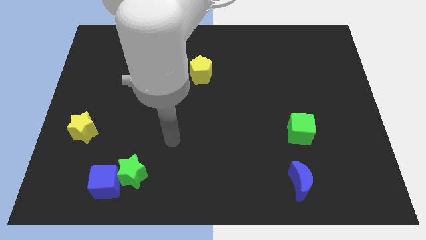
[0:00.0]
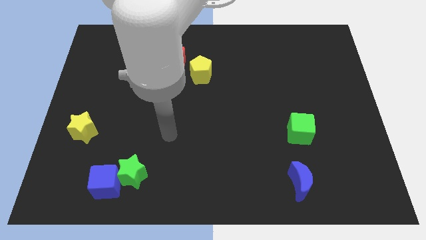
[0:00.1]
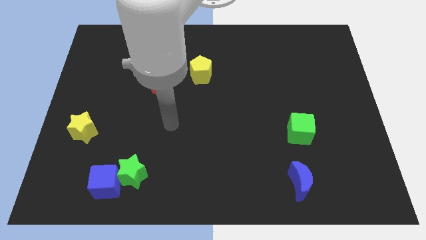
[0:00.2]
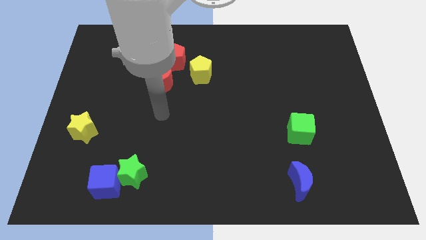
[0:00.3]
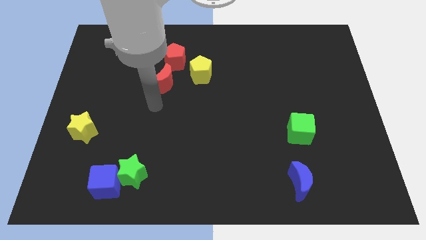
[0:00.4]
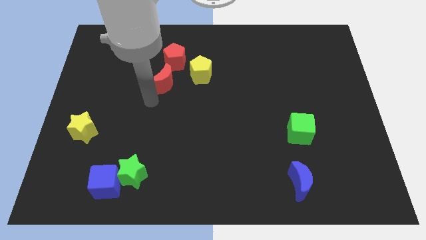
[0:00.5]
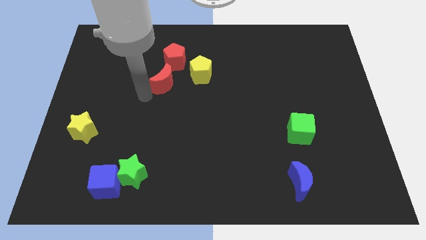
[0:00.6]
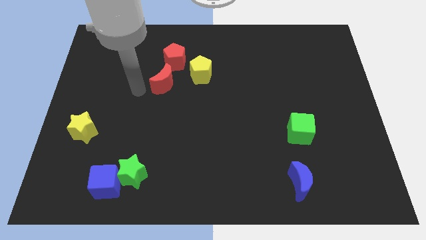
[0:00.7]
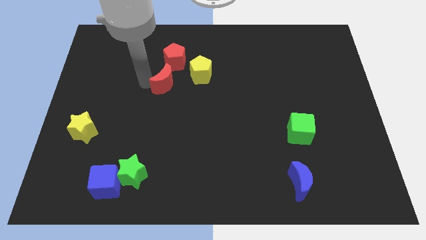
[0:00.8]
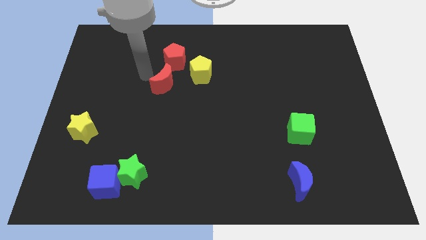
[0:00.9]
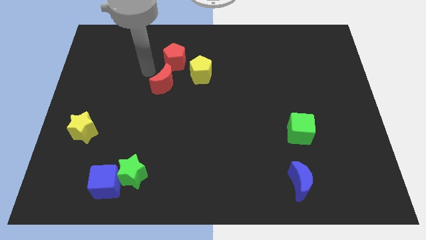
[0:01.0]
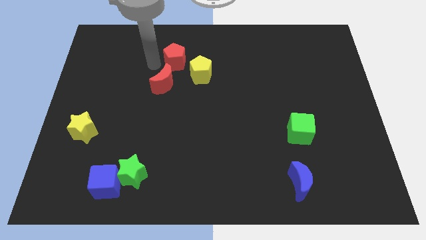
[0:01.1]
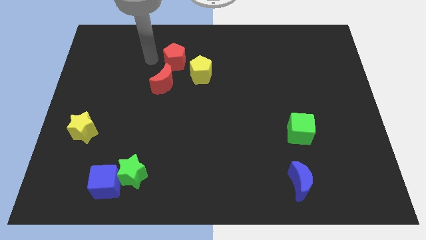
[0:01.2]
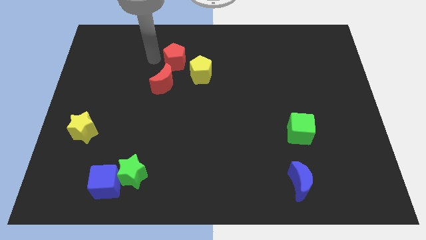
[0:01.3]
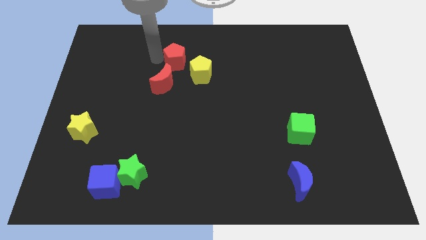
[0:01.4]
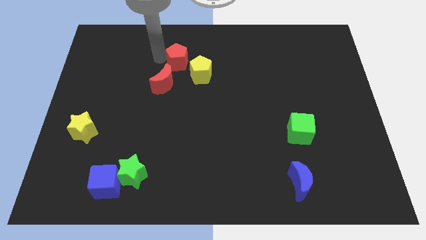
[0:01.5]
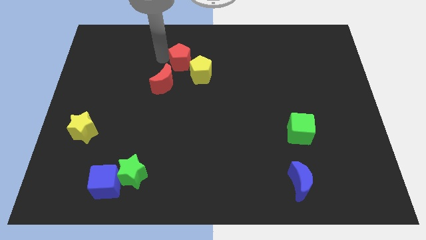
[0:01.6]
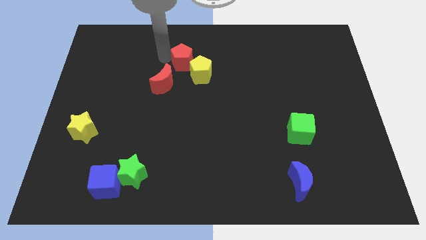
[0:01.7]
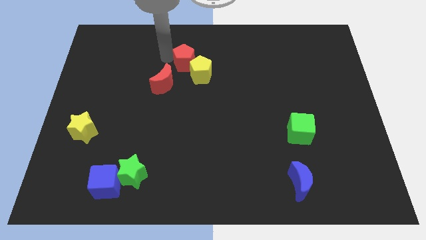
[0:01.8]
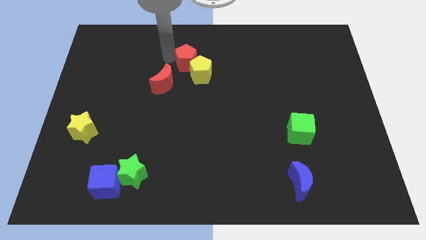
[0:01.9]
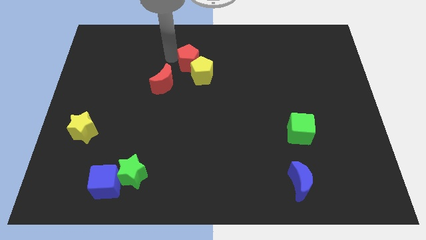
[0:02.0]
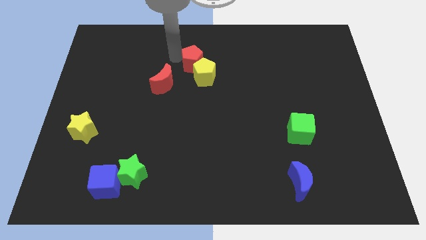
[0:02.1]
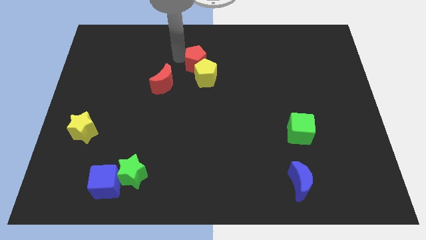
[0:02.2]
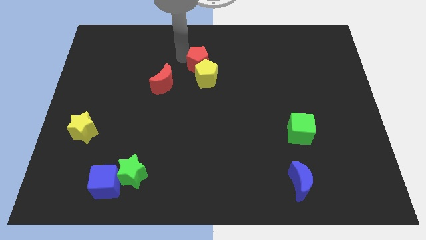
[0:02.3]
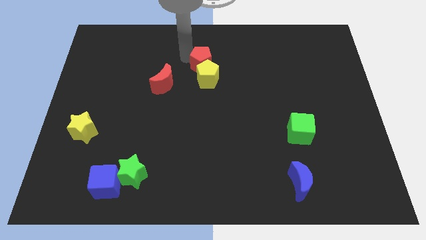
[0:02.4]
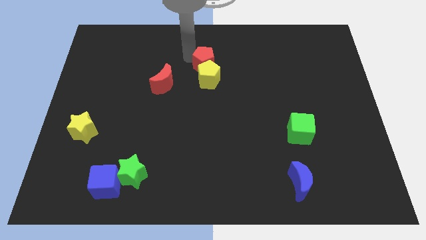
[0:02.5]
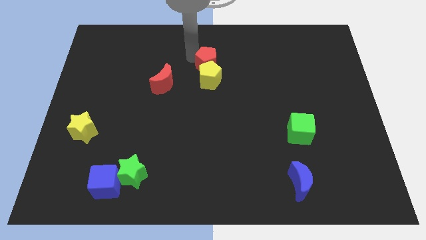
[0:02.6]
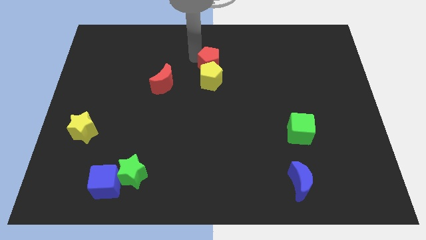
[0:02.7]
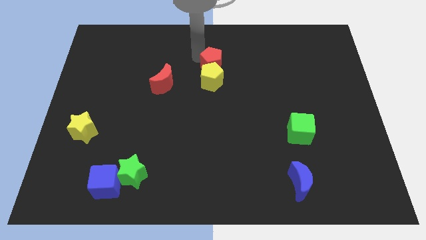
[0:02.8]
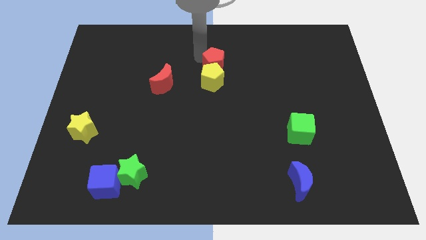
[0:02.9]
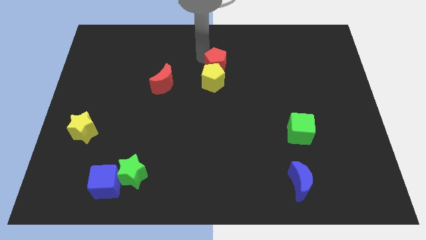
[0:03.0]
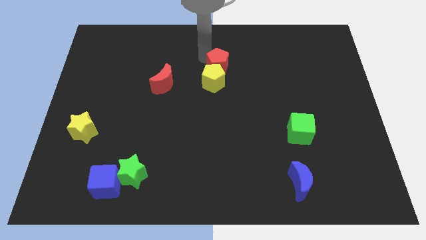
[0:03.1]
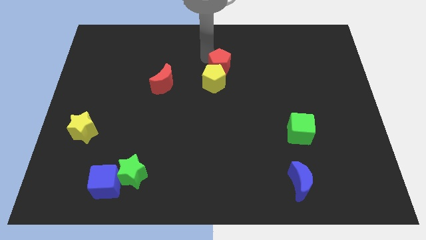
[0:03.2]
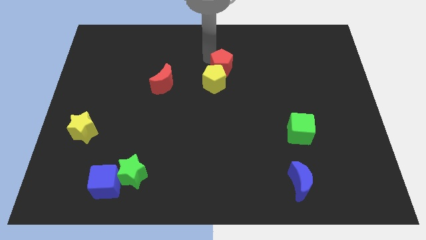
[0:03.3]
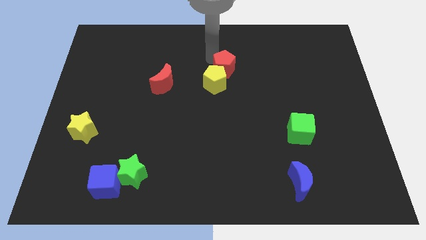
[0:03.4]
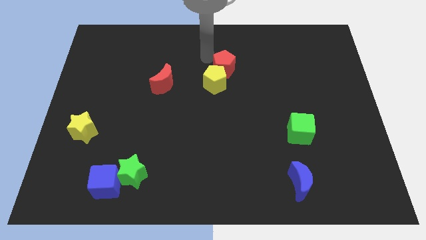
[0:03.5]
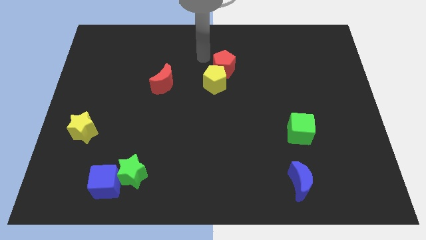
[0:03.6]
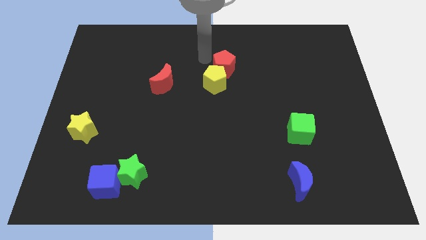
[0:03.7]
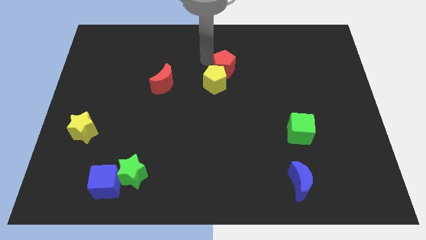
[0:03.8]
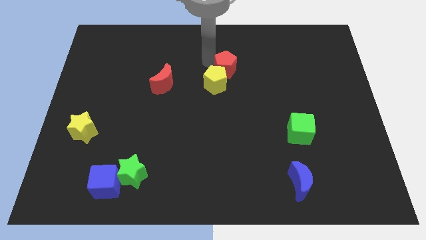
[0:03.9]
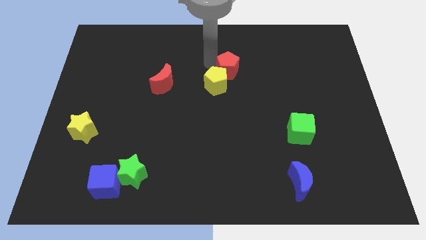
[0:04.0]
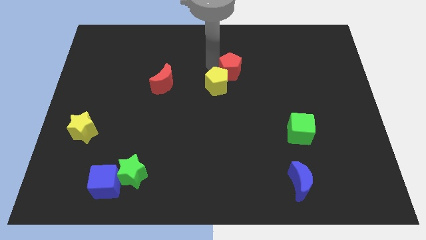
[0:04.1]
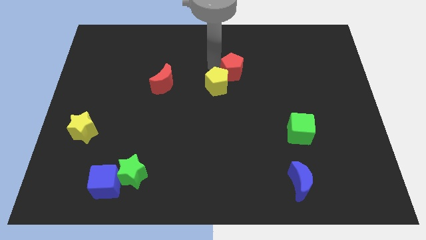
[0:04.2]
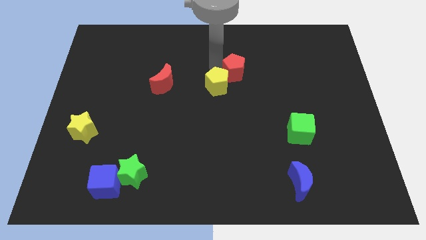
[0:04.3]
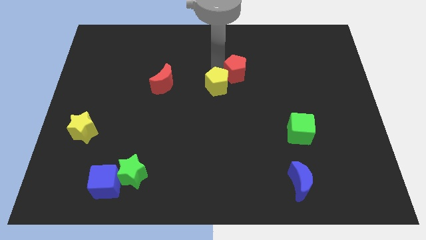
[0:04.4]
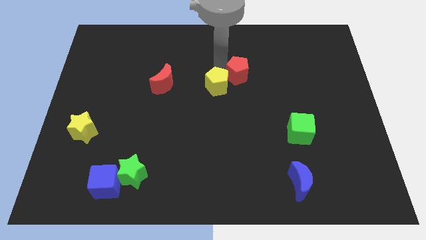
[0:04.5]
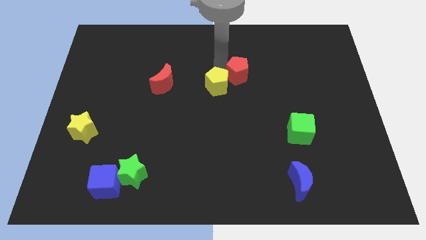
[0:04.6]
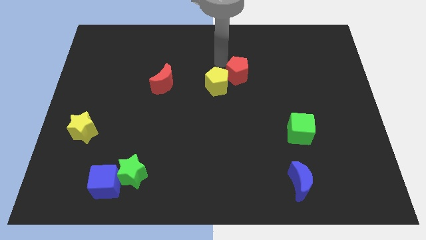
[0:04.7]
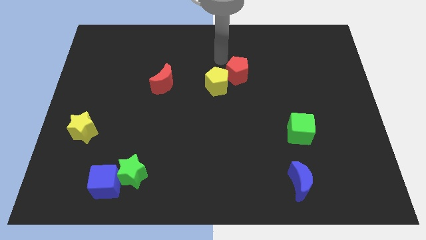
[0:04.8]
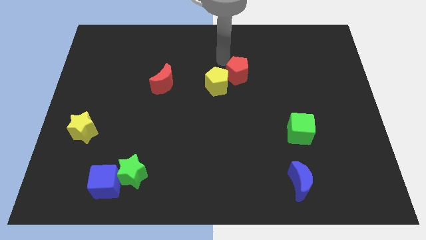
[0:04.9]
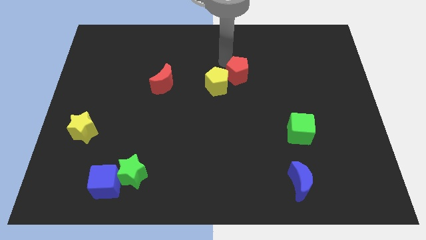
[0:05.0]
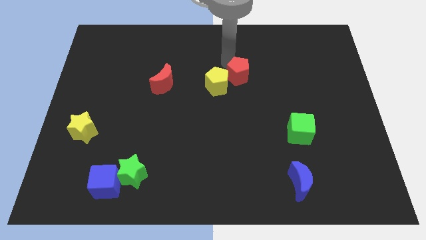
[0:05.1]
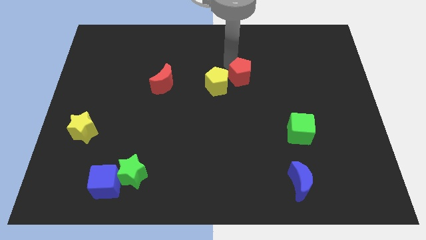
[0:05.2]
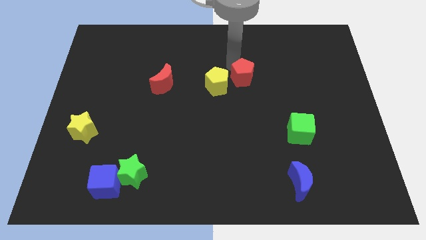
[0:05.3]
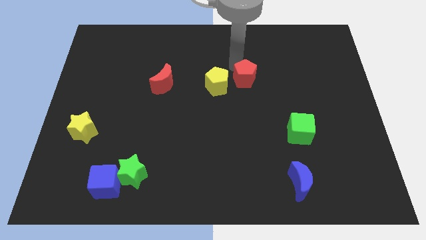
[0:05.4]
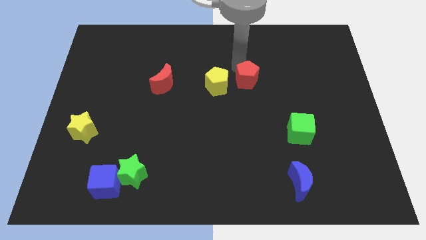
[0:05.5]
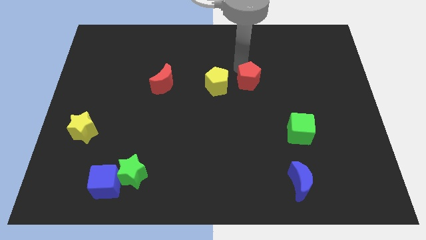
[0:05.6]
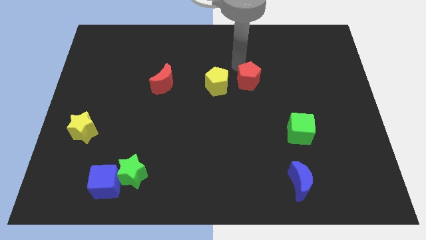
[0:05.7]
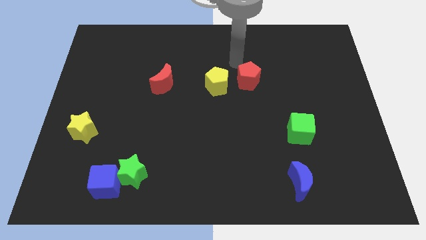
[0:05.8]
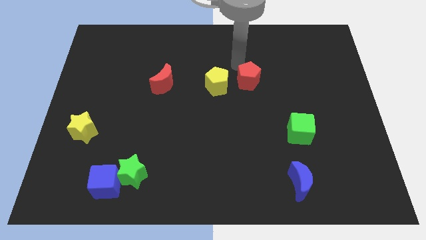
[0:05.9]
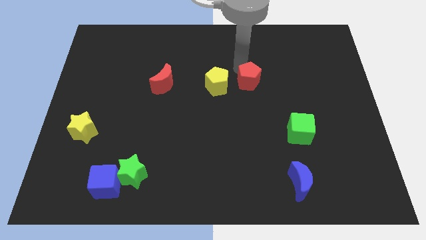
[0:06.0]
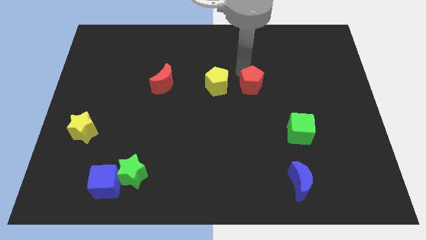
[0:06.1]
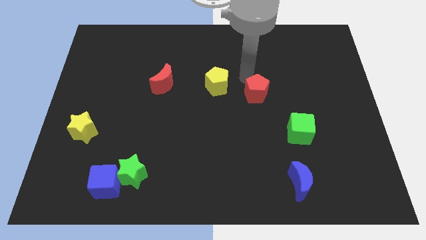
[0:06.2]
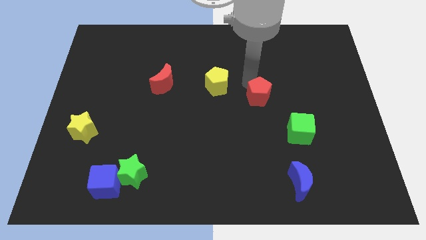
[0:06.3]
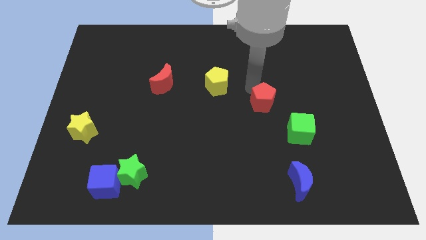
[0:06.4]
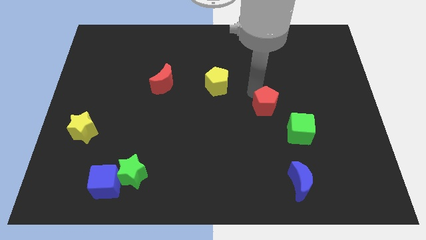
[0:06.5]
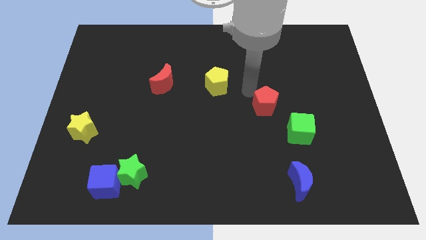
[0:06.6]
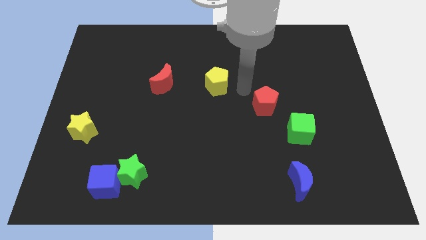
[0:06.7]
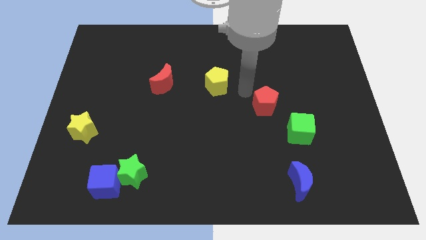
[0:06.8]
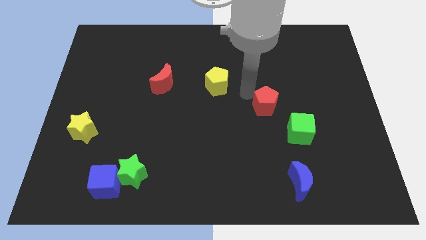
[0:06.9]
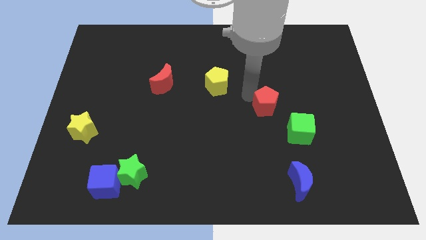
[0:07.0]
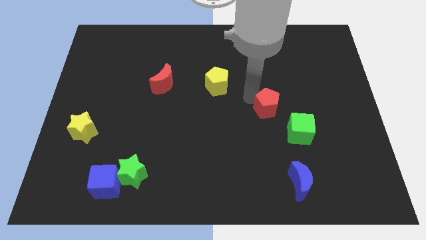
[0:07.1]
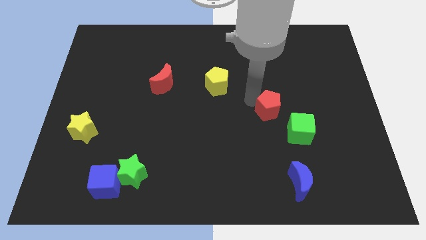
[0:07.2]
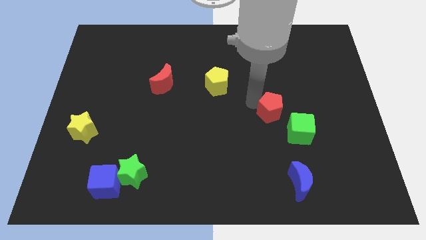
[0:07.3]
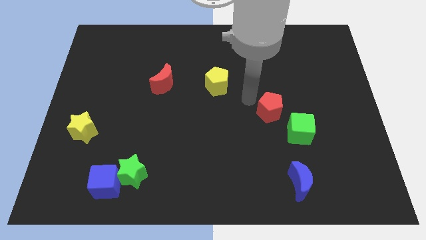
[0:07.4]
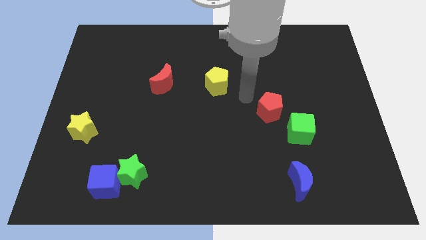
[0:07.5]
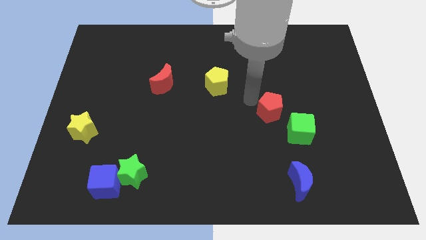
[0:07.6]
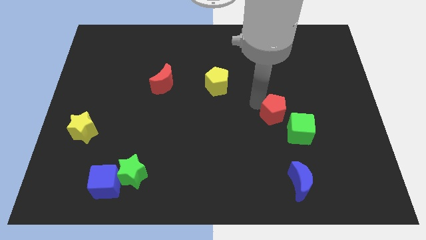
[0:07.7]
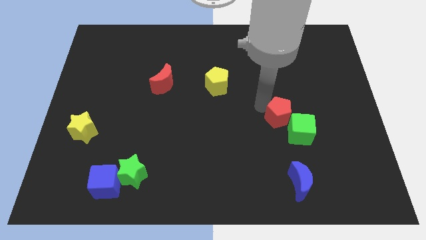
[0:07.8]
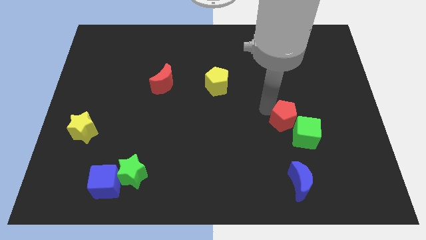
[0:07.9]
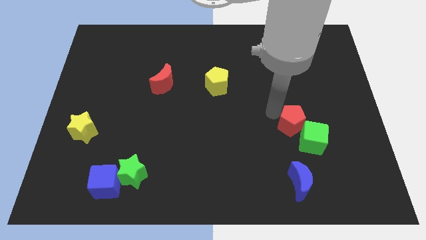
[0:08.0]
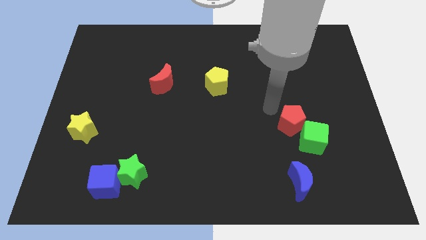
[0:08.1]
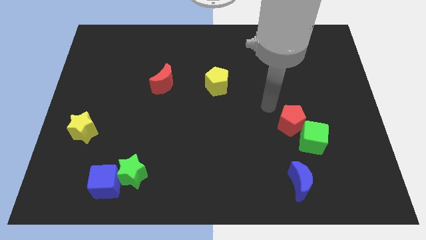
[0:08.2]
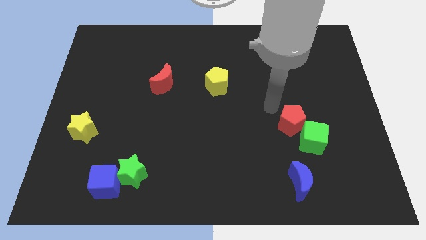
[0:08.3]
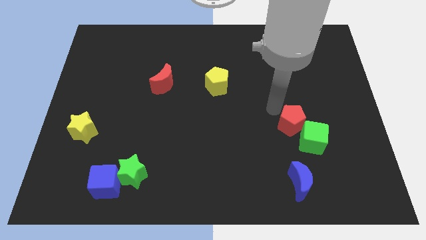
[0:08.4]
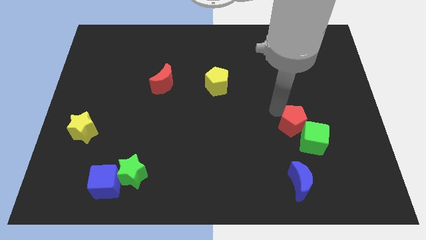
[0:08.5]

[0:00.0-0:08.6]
slide the red pentagon towards the green cube
